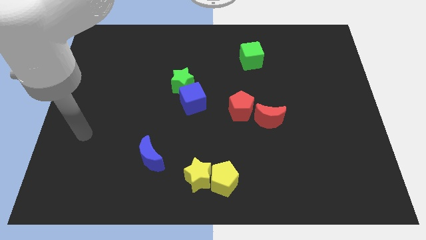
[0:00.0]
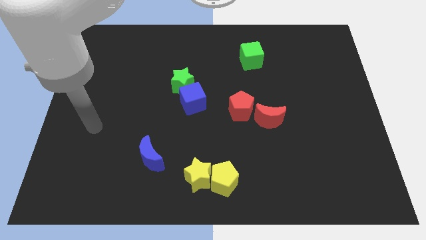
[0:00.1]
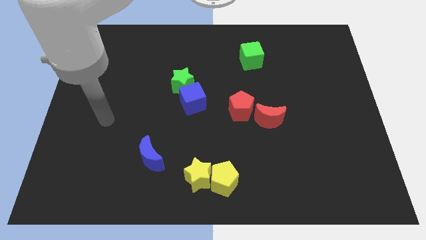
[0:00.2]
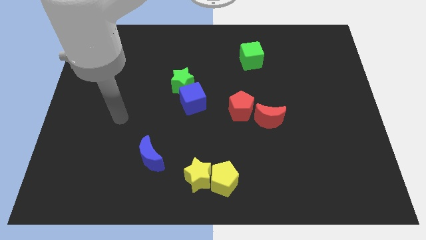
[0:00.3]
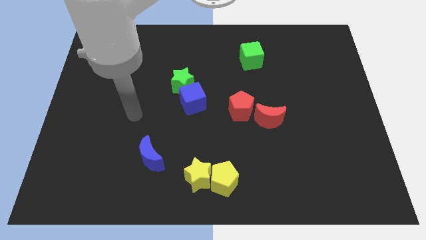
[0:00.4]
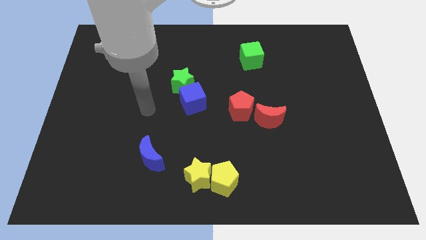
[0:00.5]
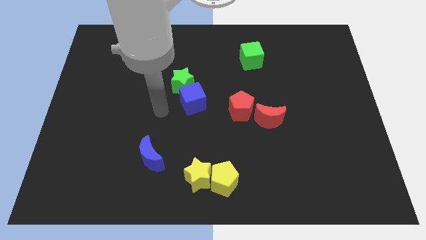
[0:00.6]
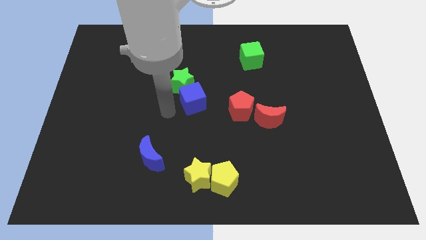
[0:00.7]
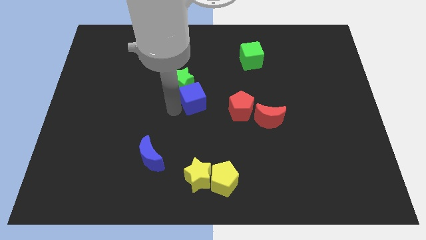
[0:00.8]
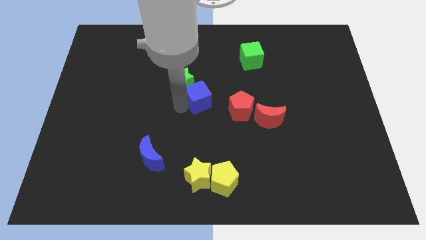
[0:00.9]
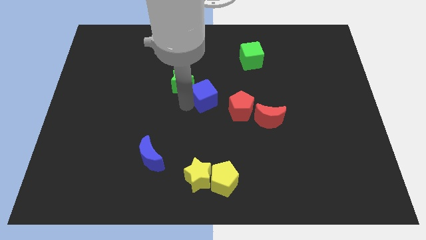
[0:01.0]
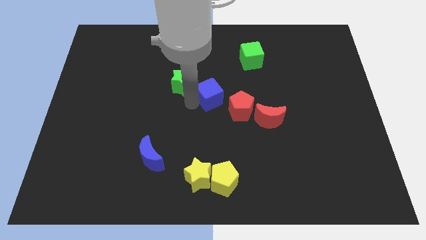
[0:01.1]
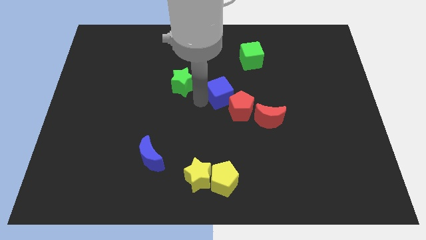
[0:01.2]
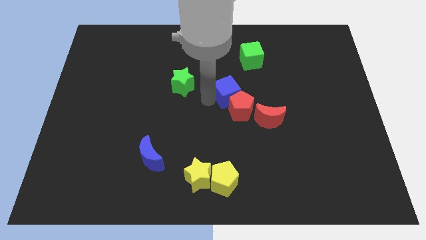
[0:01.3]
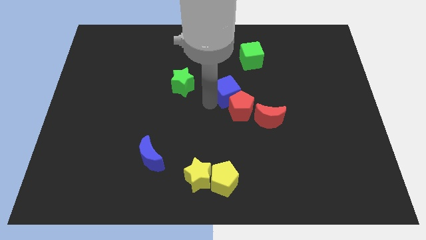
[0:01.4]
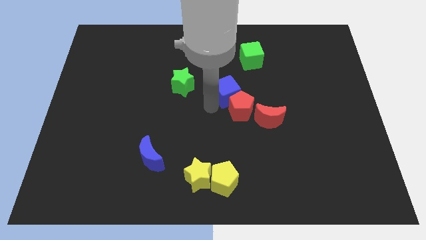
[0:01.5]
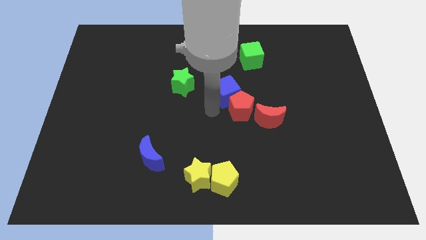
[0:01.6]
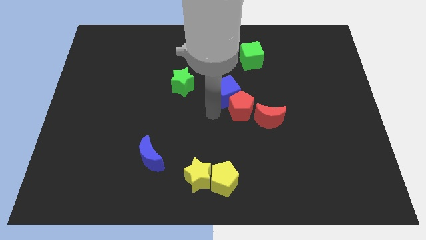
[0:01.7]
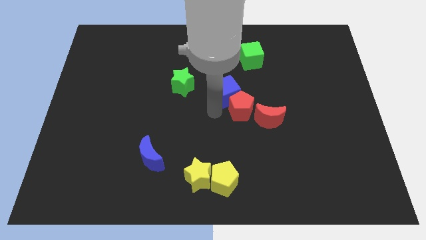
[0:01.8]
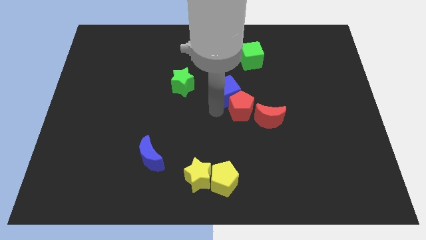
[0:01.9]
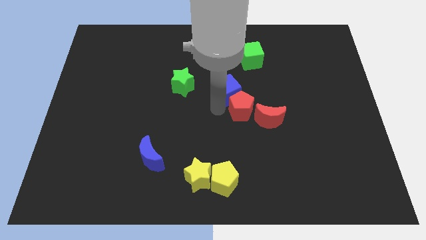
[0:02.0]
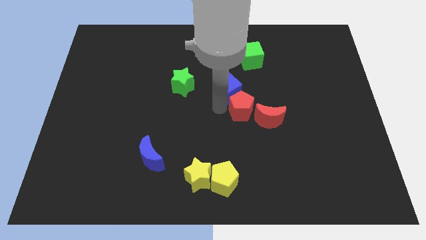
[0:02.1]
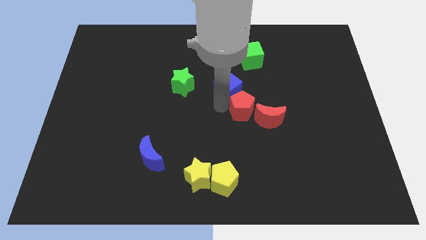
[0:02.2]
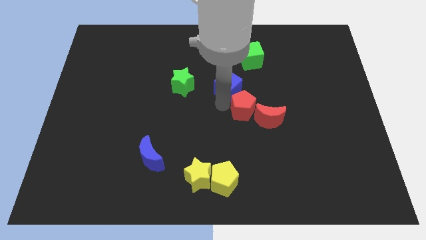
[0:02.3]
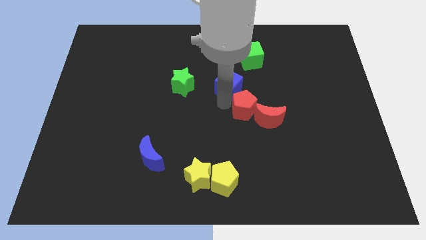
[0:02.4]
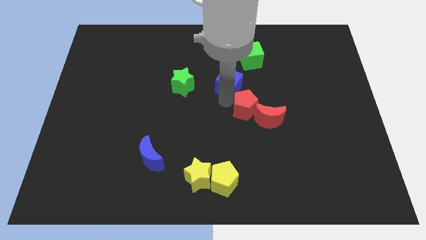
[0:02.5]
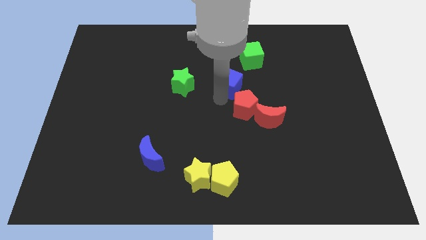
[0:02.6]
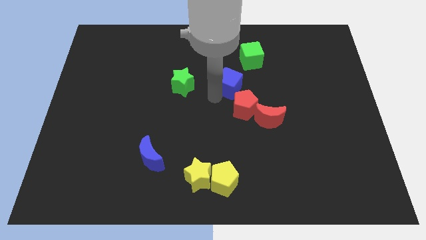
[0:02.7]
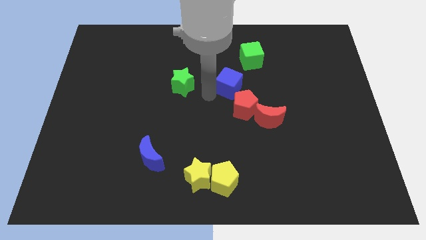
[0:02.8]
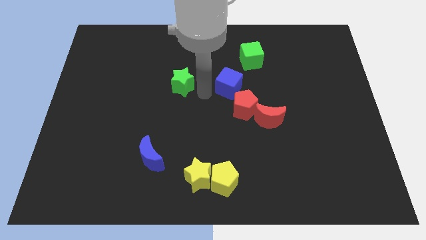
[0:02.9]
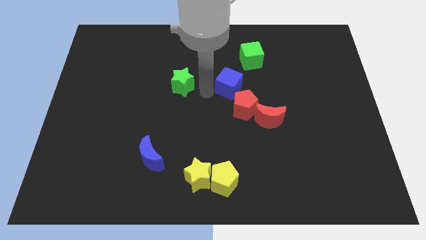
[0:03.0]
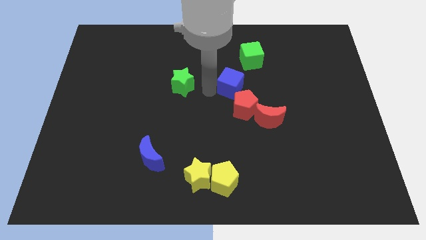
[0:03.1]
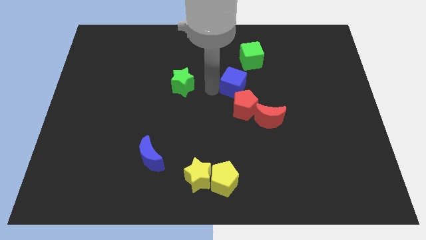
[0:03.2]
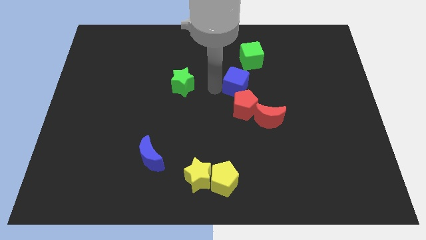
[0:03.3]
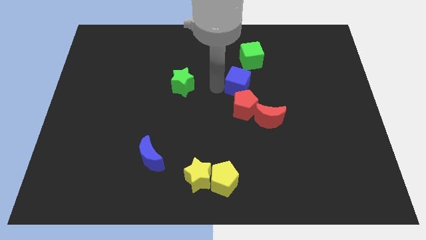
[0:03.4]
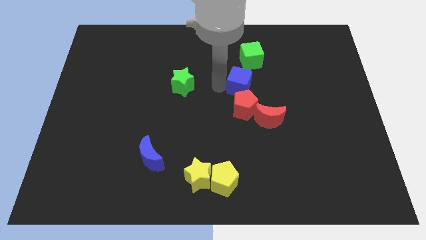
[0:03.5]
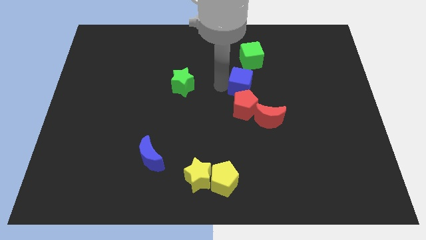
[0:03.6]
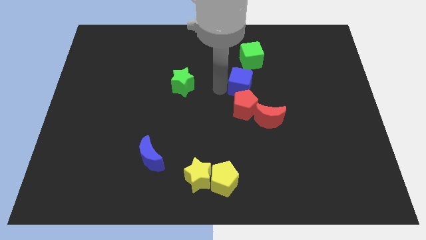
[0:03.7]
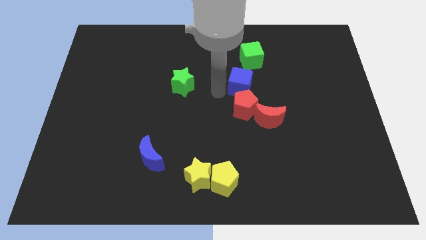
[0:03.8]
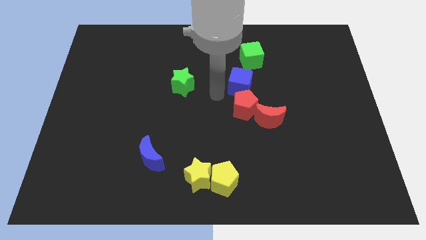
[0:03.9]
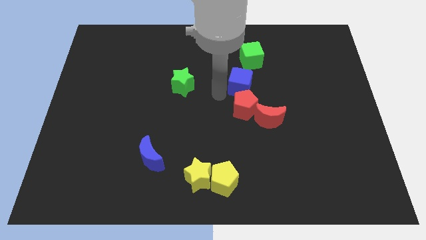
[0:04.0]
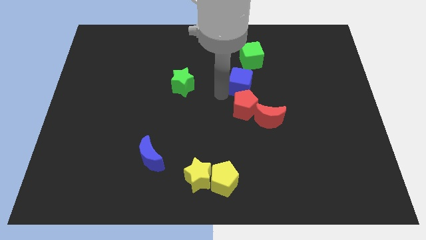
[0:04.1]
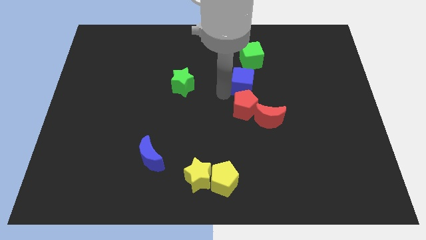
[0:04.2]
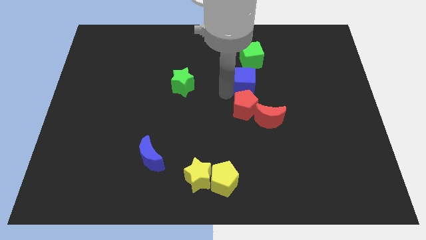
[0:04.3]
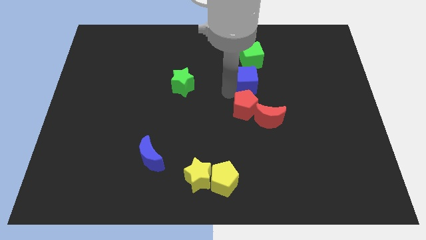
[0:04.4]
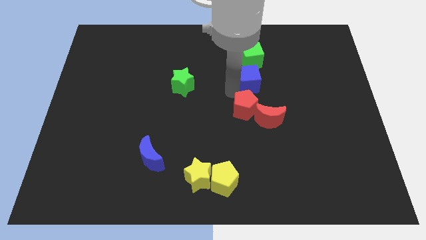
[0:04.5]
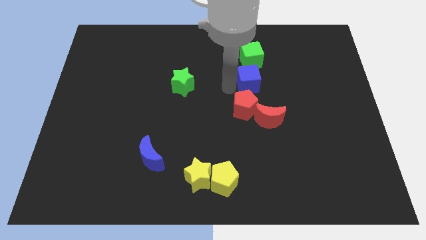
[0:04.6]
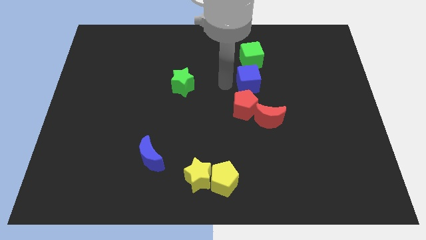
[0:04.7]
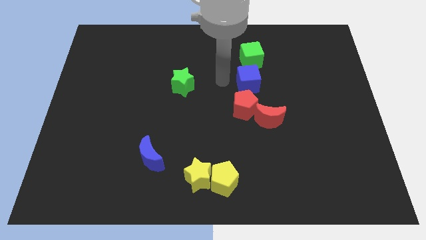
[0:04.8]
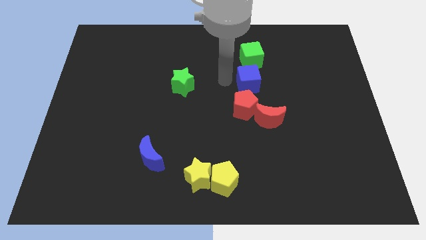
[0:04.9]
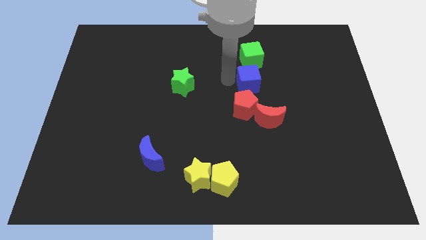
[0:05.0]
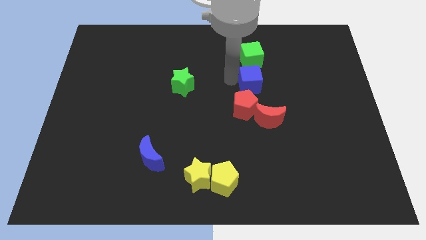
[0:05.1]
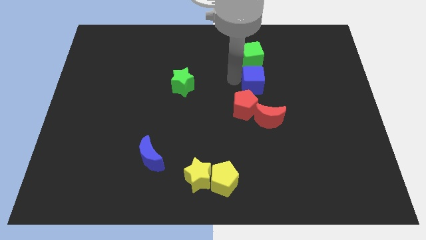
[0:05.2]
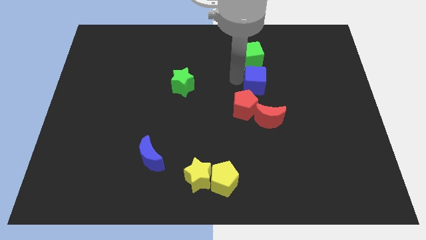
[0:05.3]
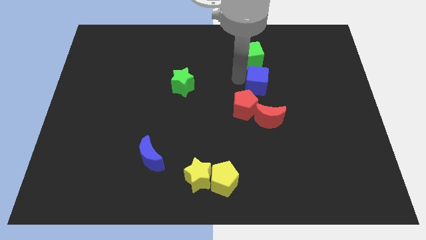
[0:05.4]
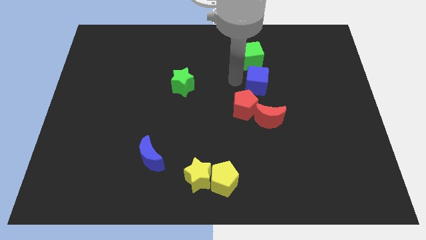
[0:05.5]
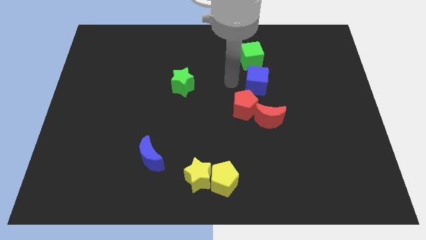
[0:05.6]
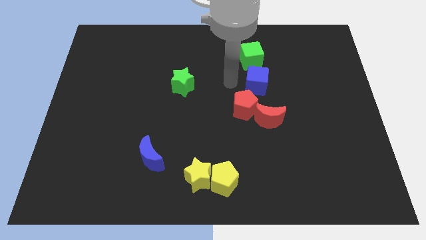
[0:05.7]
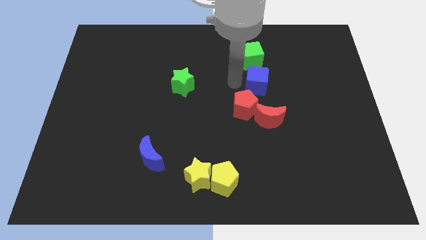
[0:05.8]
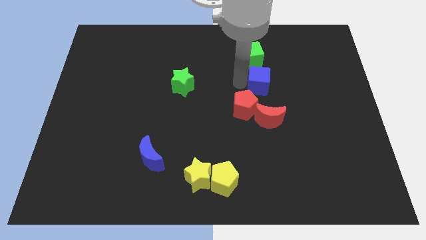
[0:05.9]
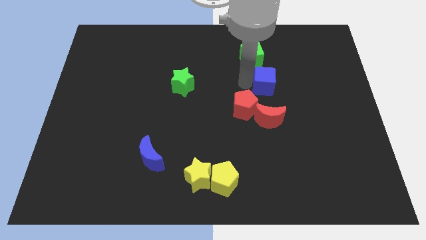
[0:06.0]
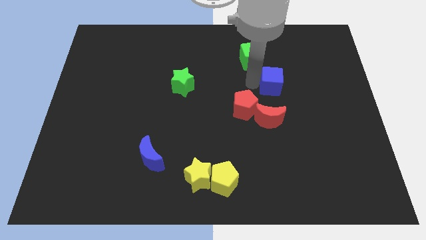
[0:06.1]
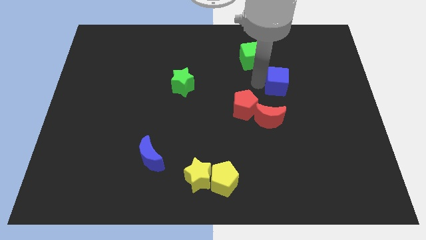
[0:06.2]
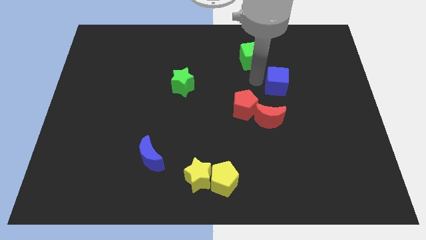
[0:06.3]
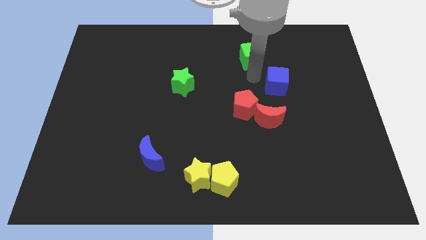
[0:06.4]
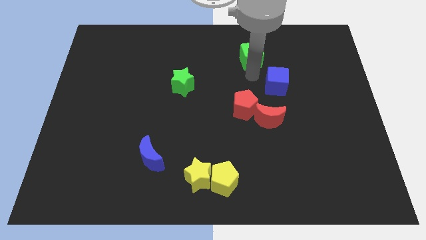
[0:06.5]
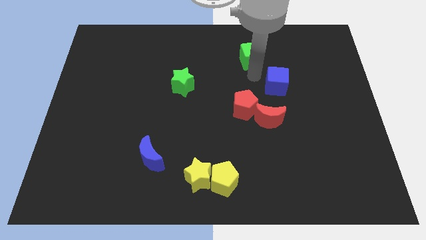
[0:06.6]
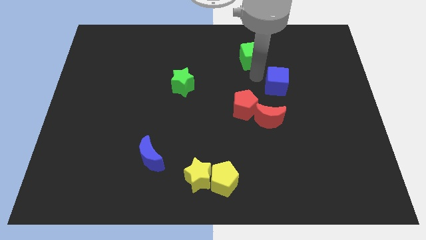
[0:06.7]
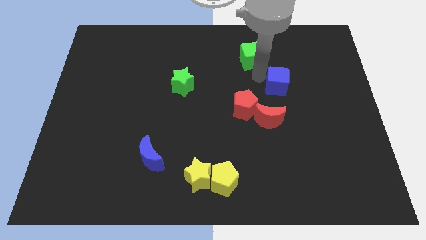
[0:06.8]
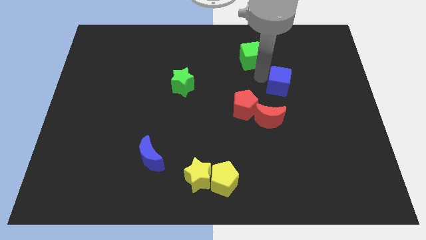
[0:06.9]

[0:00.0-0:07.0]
move the blue cube right

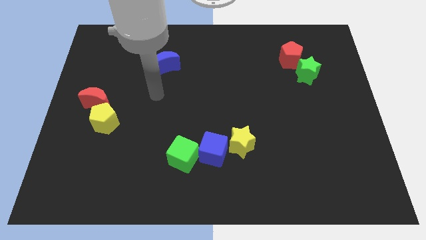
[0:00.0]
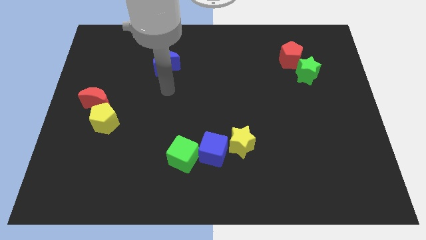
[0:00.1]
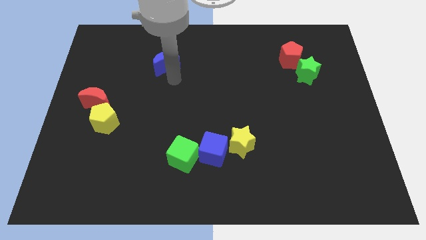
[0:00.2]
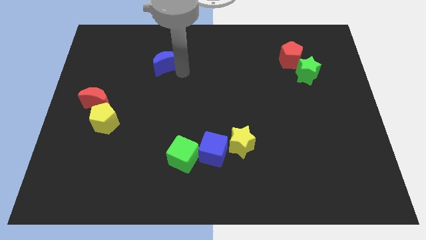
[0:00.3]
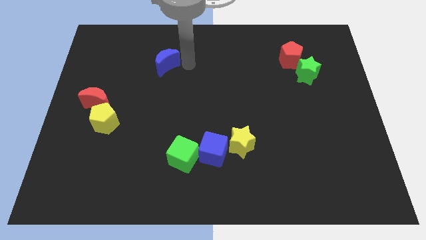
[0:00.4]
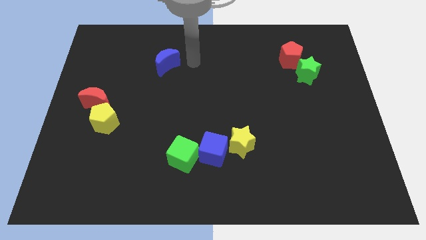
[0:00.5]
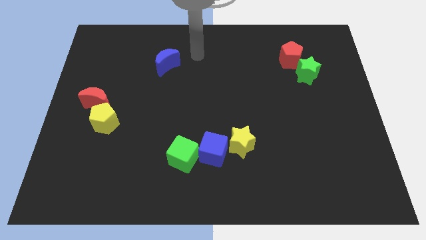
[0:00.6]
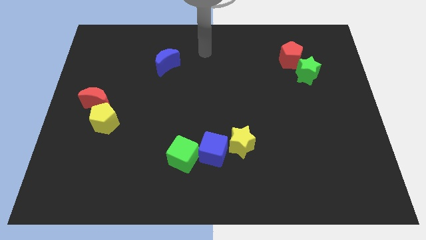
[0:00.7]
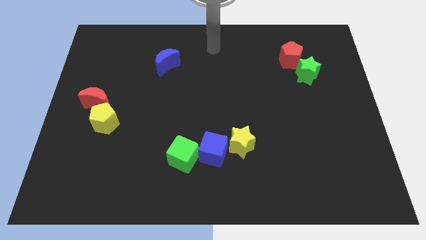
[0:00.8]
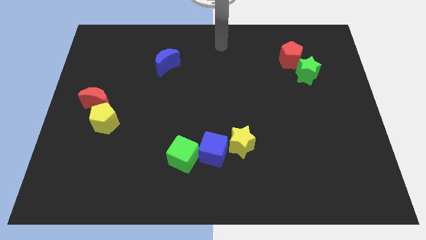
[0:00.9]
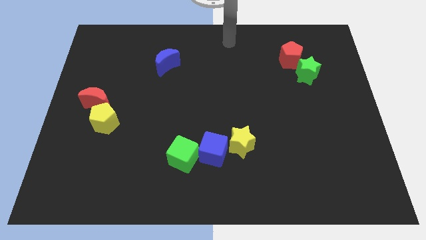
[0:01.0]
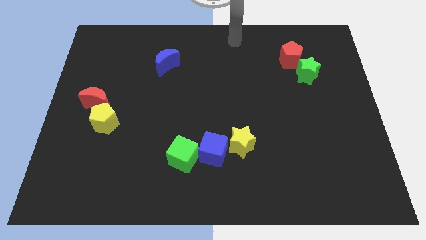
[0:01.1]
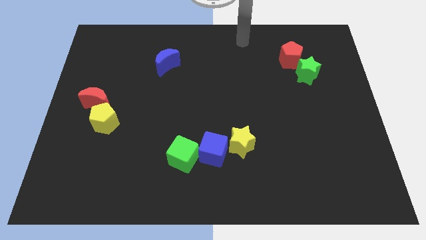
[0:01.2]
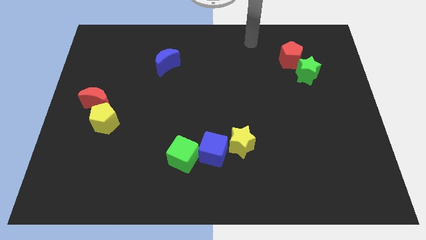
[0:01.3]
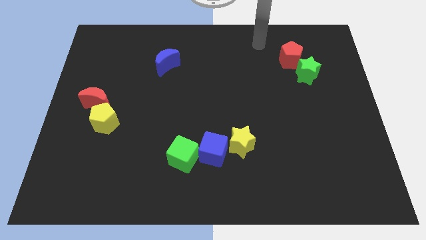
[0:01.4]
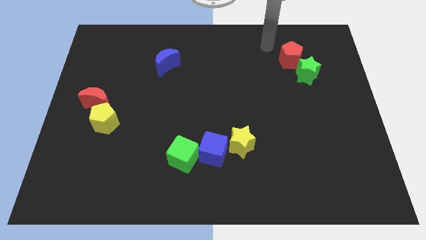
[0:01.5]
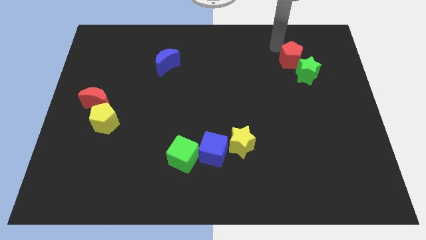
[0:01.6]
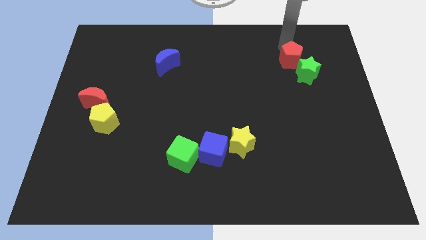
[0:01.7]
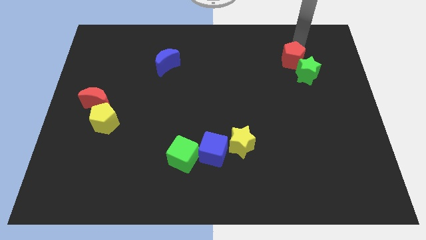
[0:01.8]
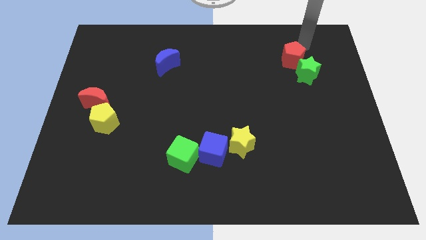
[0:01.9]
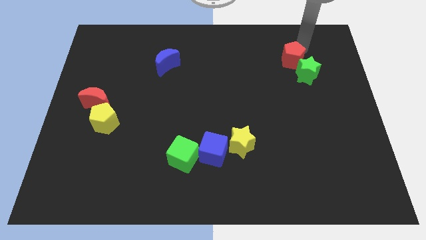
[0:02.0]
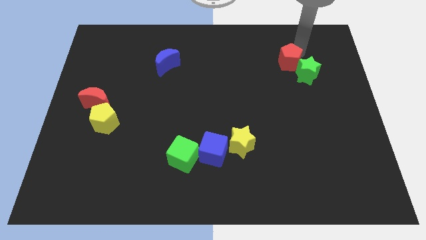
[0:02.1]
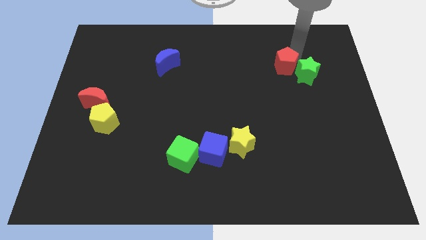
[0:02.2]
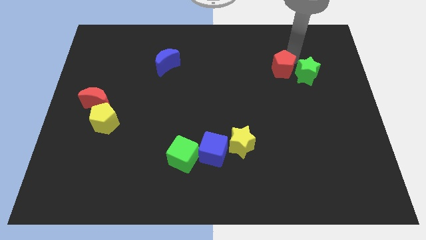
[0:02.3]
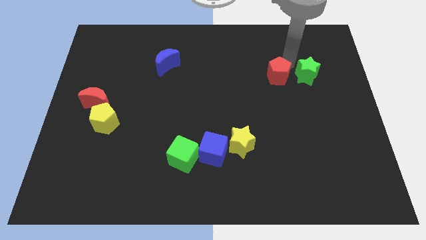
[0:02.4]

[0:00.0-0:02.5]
slightly move the red pentagon downwards and left diagonally
